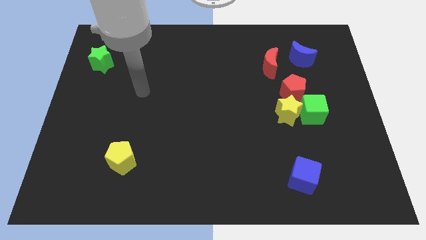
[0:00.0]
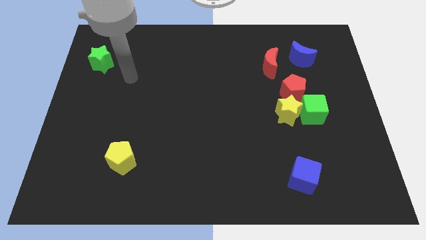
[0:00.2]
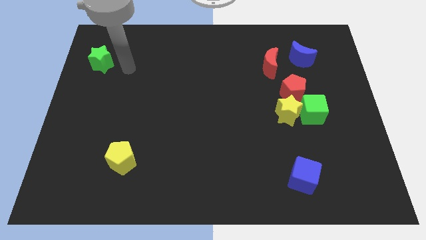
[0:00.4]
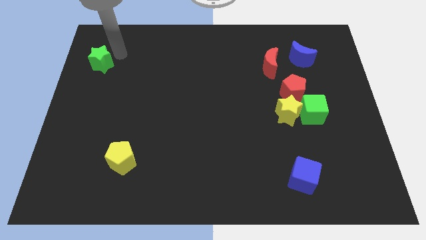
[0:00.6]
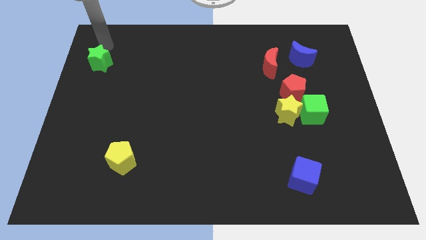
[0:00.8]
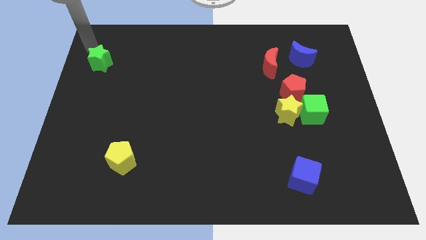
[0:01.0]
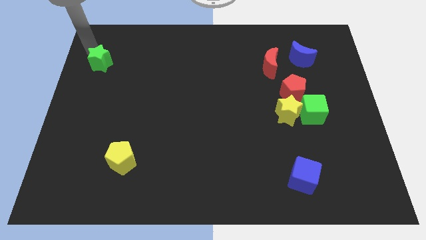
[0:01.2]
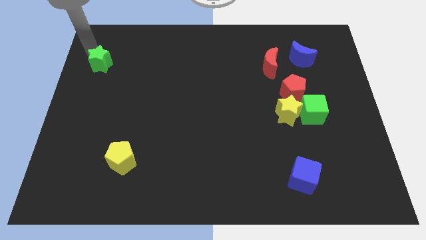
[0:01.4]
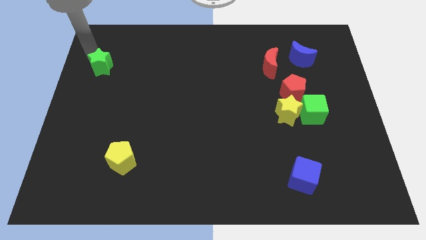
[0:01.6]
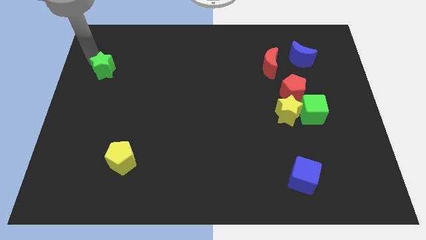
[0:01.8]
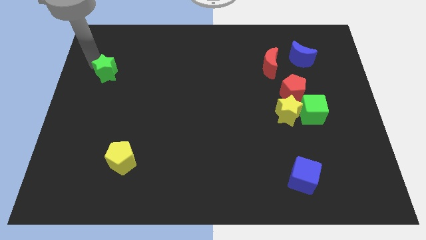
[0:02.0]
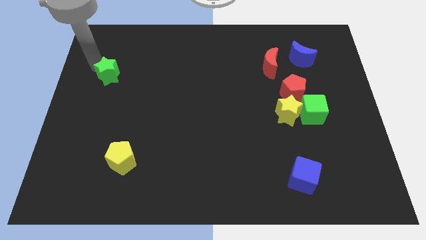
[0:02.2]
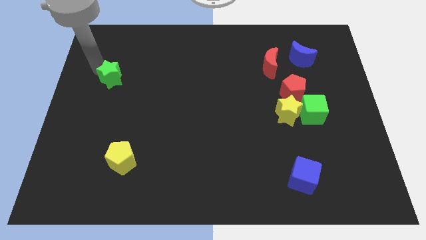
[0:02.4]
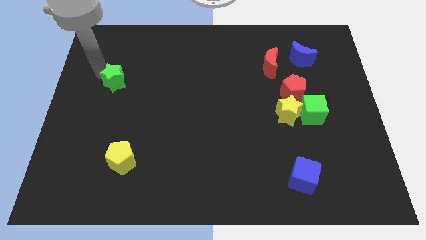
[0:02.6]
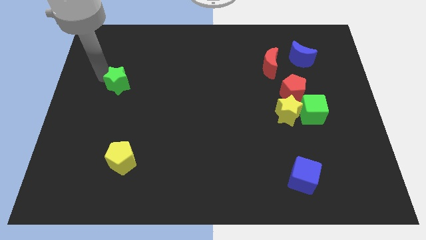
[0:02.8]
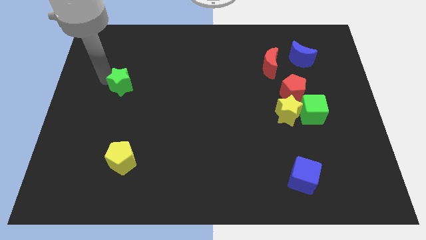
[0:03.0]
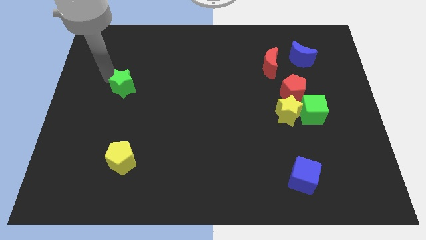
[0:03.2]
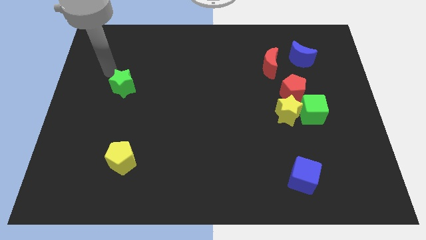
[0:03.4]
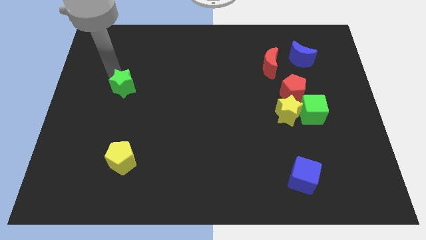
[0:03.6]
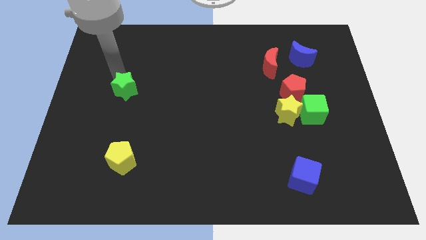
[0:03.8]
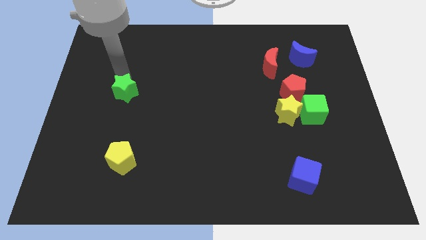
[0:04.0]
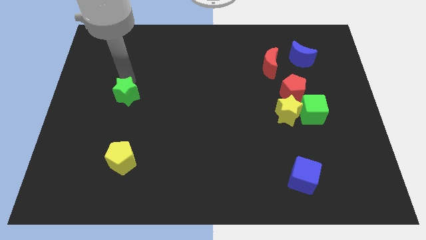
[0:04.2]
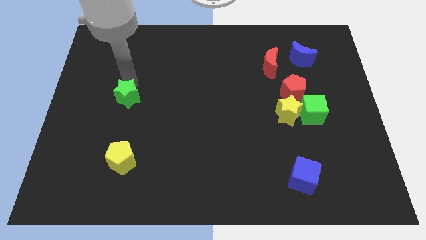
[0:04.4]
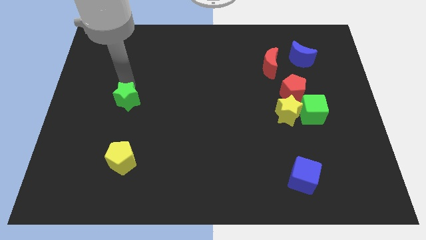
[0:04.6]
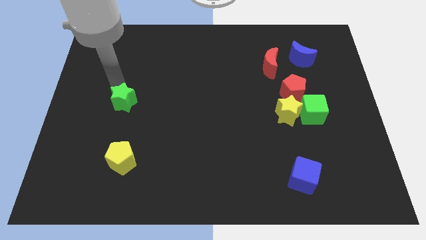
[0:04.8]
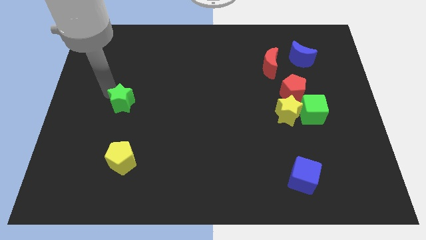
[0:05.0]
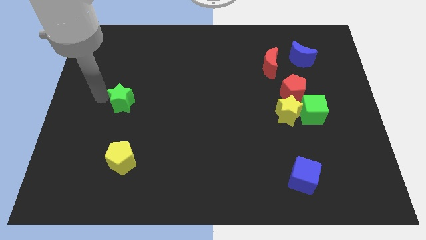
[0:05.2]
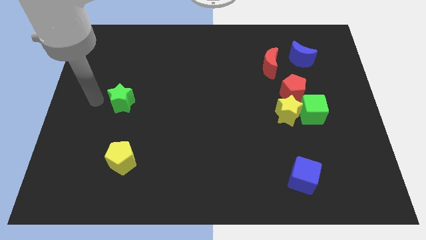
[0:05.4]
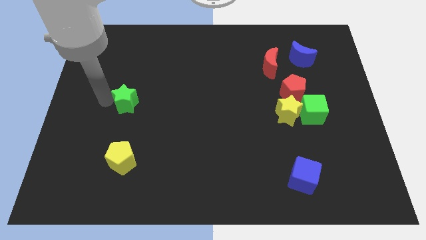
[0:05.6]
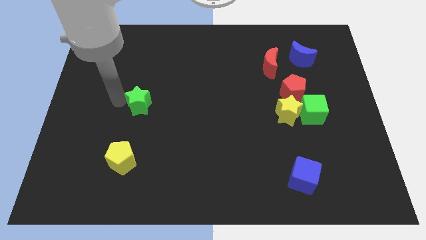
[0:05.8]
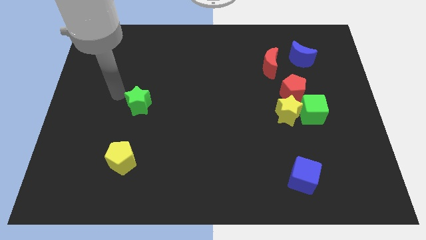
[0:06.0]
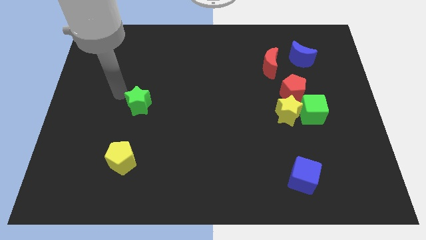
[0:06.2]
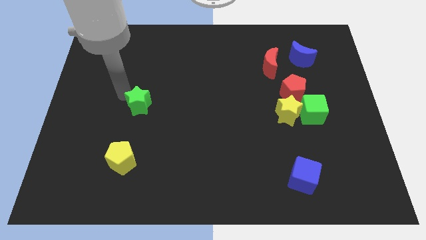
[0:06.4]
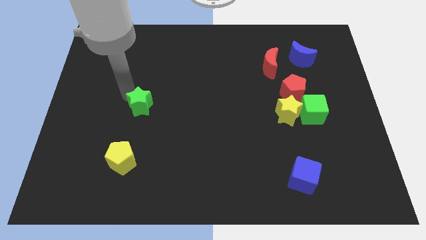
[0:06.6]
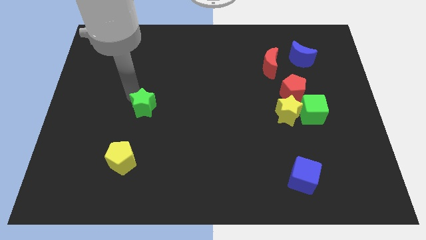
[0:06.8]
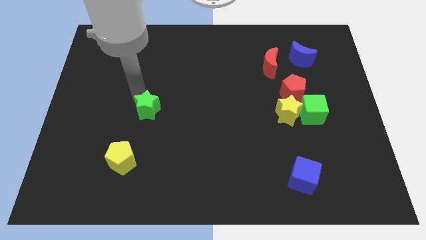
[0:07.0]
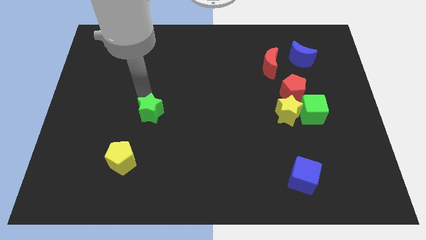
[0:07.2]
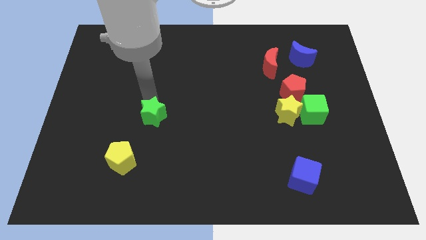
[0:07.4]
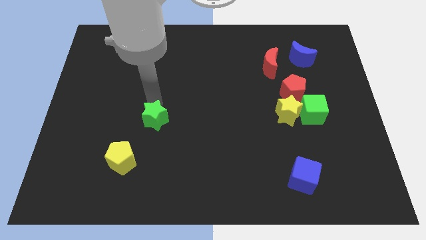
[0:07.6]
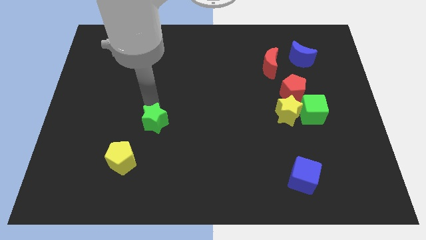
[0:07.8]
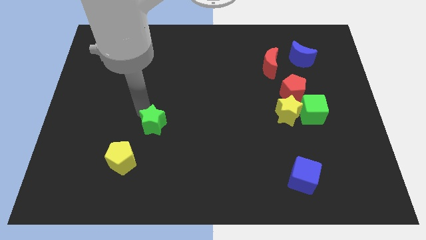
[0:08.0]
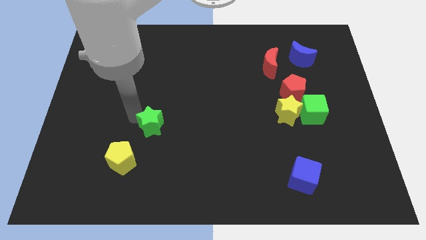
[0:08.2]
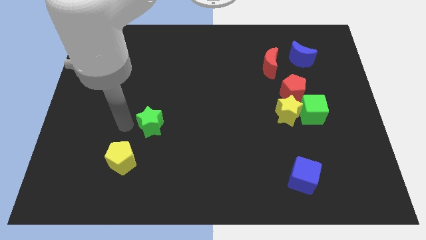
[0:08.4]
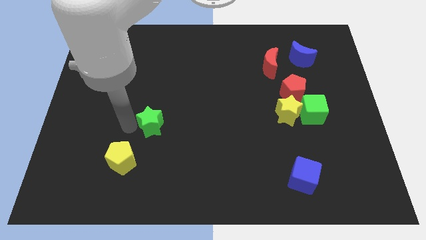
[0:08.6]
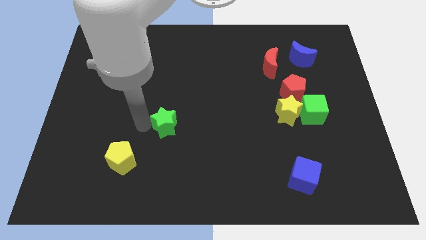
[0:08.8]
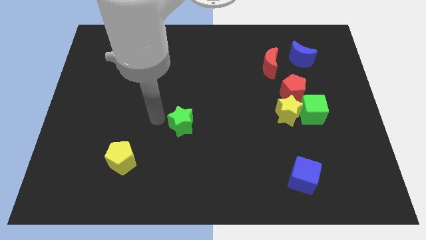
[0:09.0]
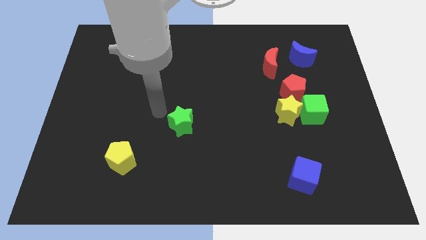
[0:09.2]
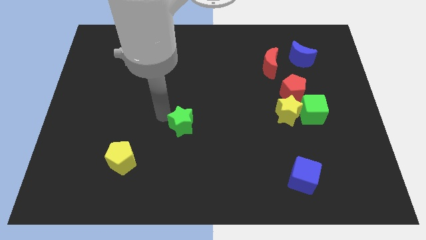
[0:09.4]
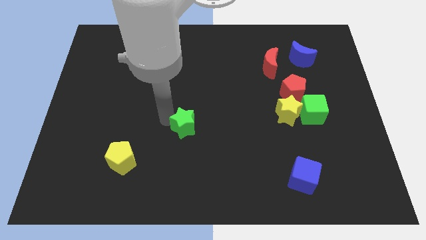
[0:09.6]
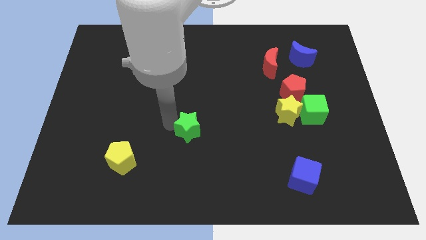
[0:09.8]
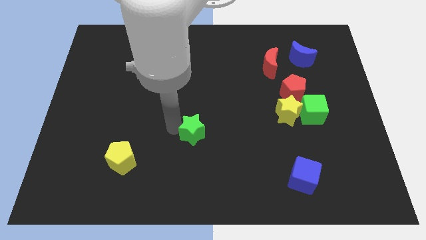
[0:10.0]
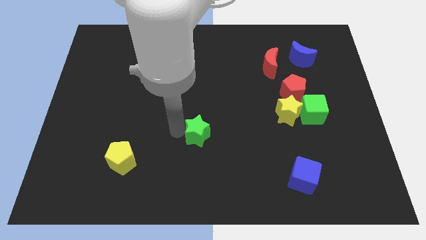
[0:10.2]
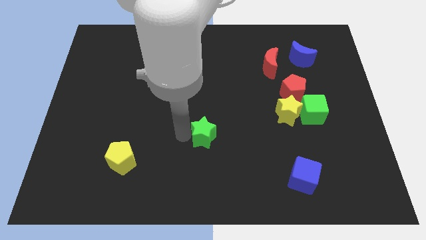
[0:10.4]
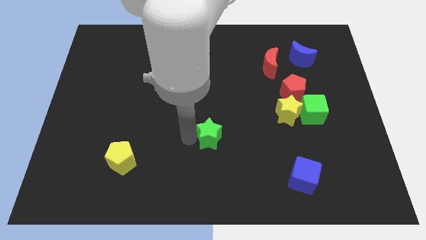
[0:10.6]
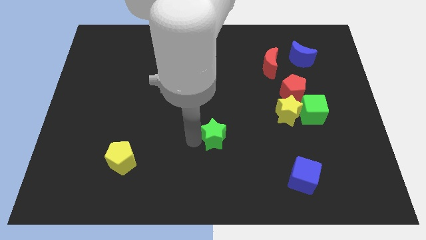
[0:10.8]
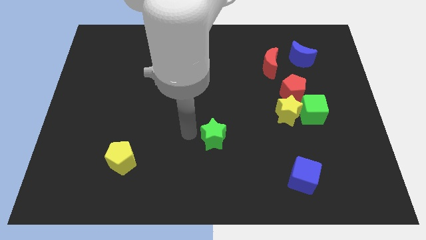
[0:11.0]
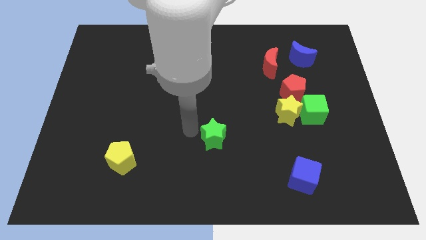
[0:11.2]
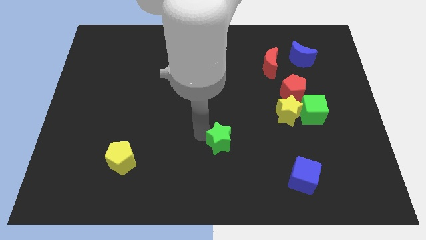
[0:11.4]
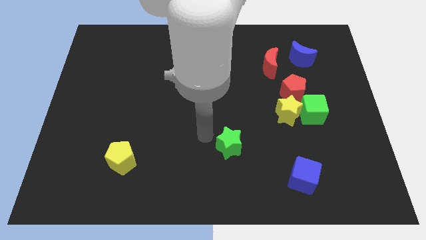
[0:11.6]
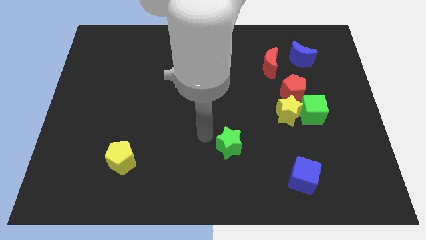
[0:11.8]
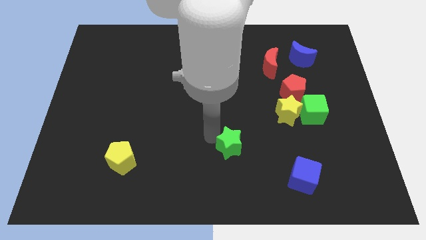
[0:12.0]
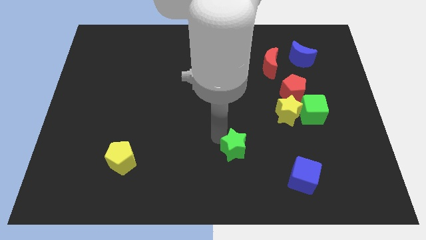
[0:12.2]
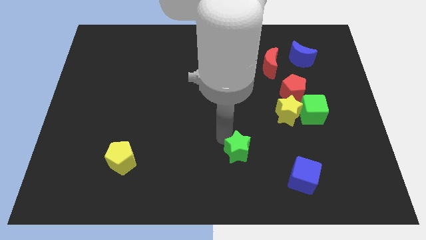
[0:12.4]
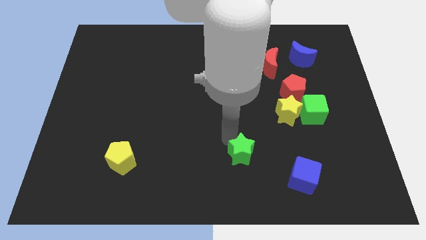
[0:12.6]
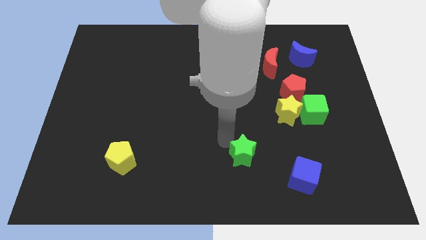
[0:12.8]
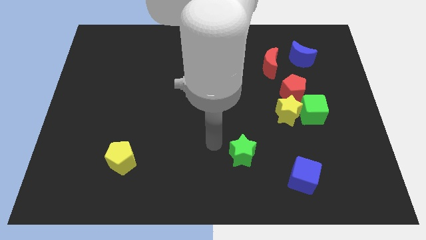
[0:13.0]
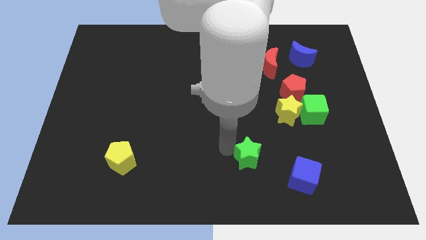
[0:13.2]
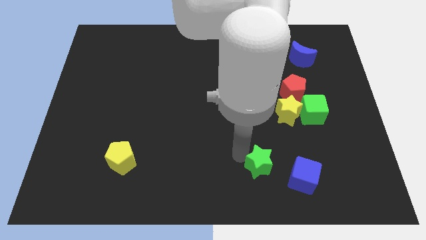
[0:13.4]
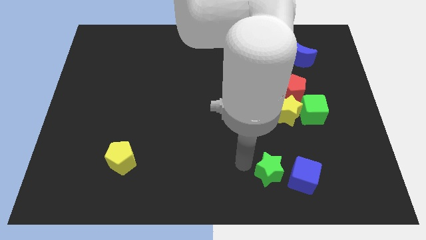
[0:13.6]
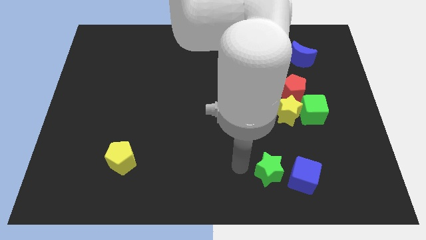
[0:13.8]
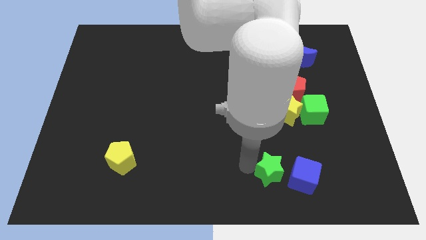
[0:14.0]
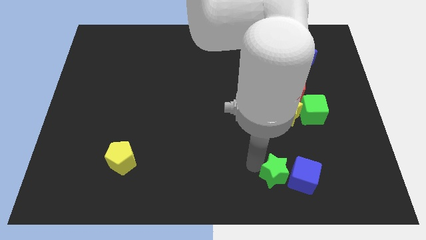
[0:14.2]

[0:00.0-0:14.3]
move the green star to the blue cube

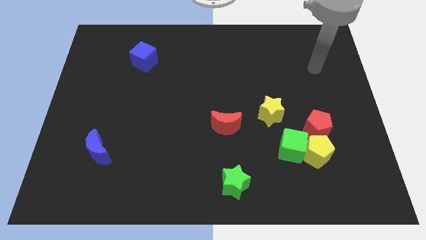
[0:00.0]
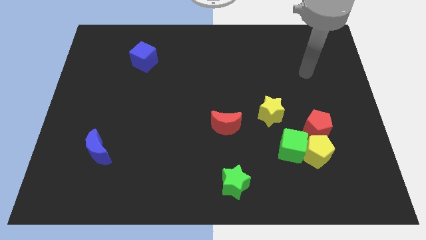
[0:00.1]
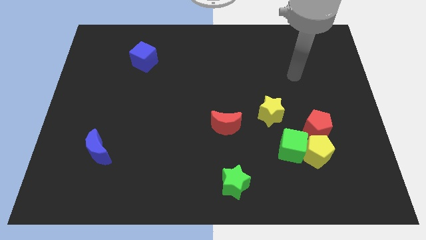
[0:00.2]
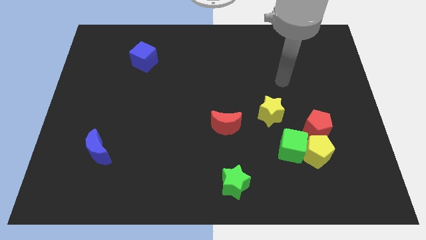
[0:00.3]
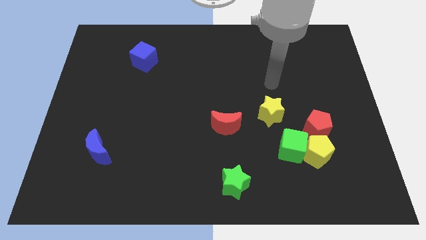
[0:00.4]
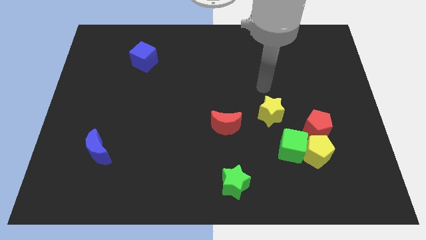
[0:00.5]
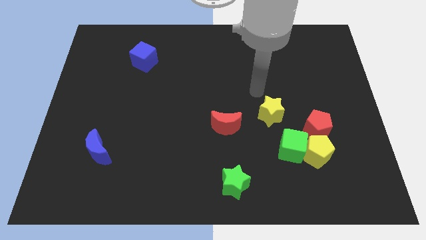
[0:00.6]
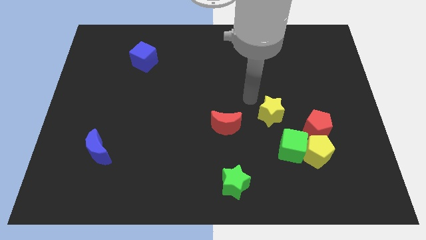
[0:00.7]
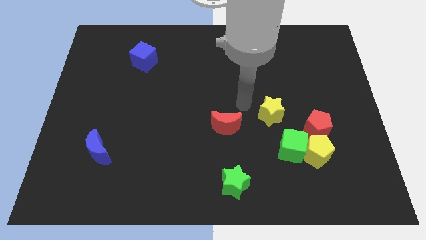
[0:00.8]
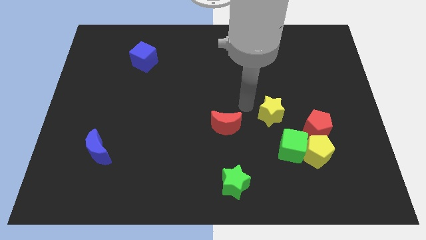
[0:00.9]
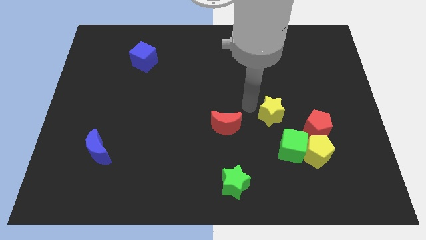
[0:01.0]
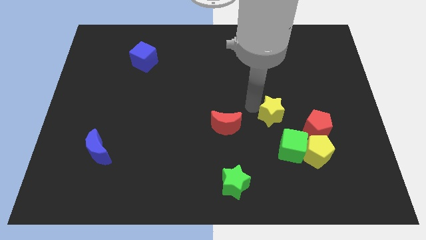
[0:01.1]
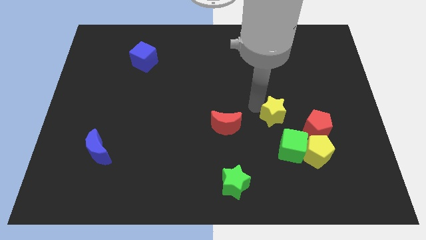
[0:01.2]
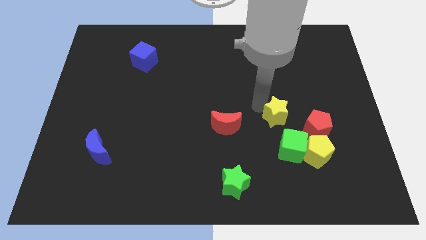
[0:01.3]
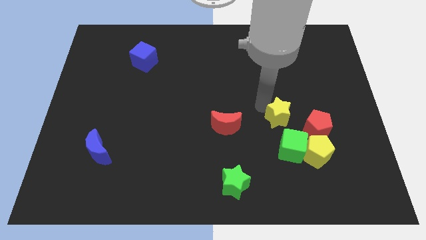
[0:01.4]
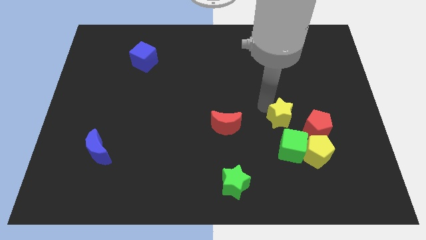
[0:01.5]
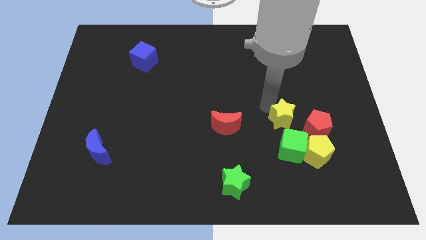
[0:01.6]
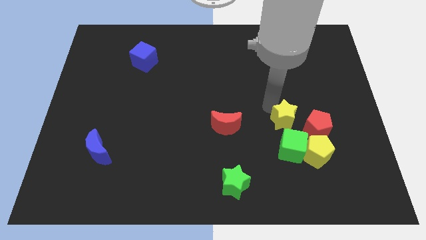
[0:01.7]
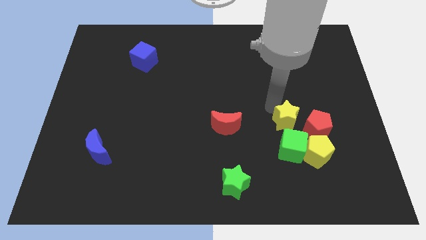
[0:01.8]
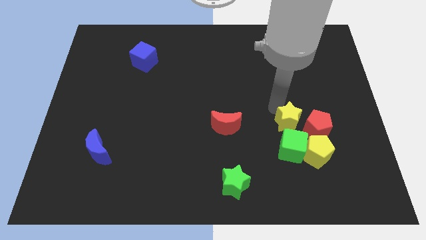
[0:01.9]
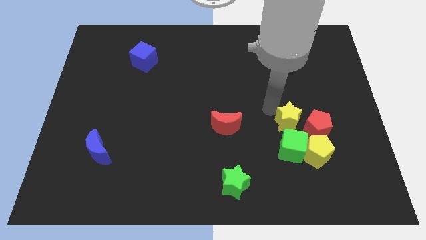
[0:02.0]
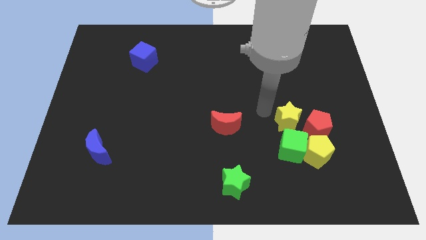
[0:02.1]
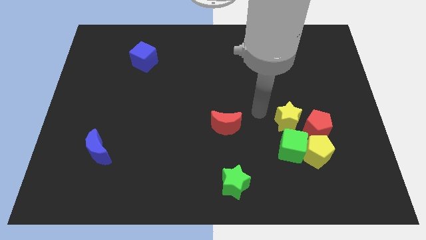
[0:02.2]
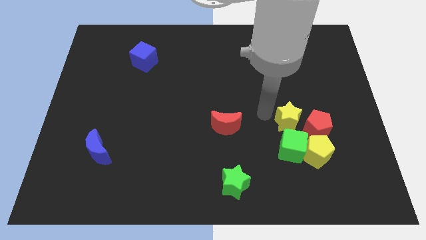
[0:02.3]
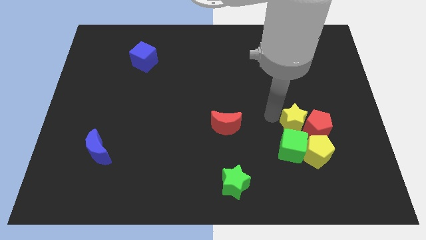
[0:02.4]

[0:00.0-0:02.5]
push the yellow star next to the red pentagon
